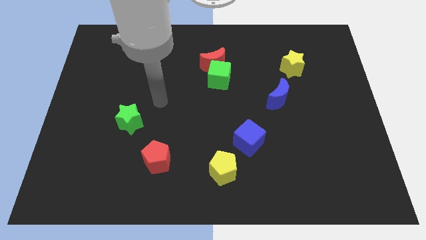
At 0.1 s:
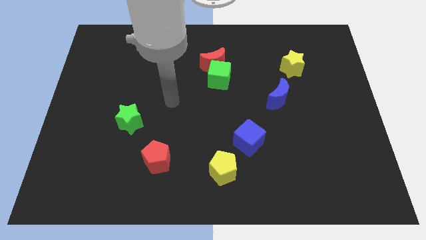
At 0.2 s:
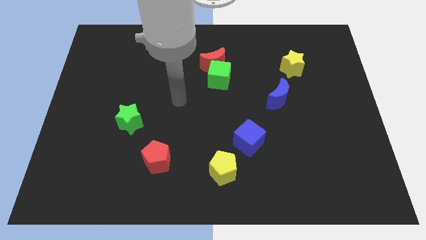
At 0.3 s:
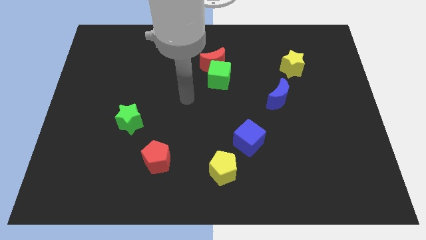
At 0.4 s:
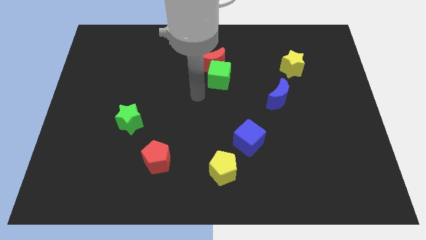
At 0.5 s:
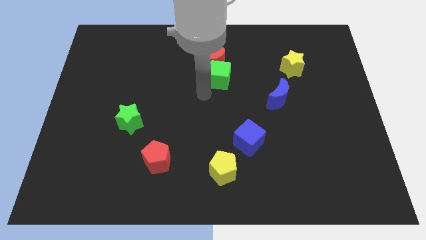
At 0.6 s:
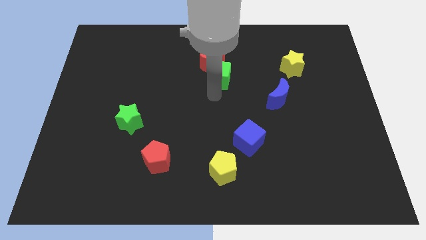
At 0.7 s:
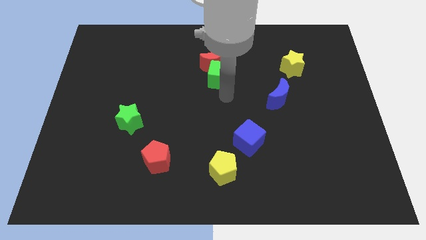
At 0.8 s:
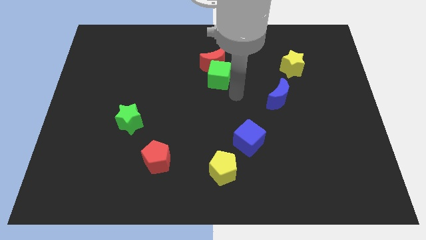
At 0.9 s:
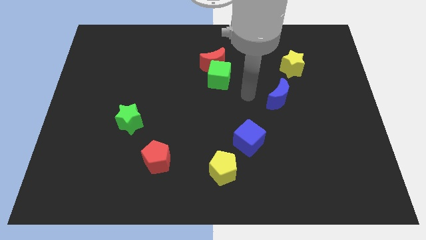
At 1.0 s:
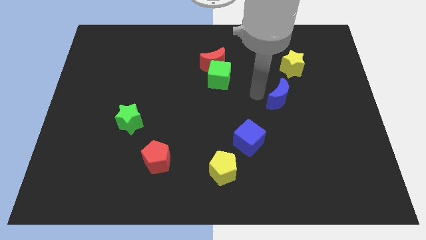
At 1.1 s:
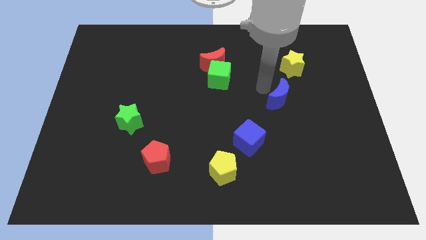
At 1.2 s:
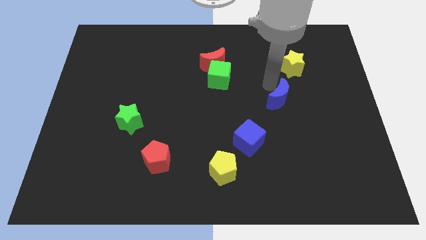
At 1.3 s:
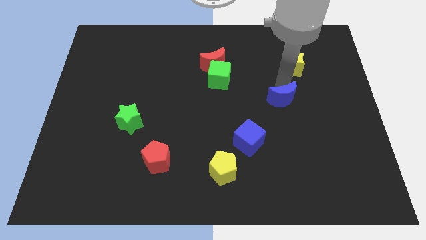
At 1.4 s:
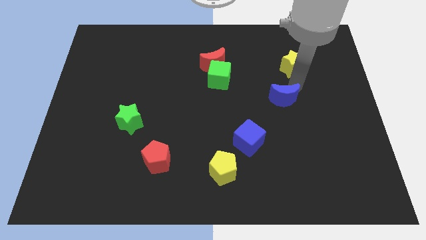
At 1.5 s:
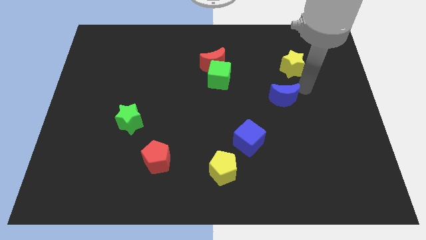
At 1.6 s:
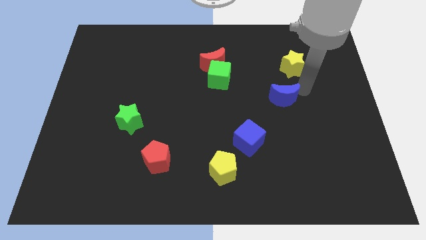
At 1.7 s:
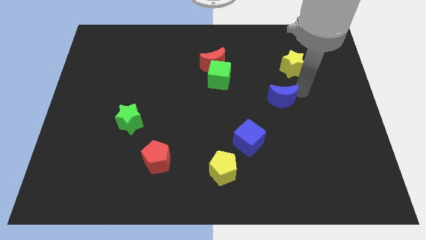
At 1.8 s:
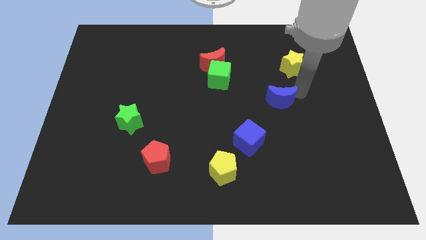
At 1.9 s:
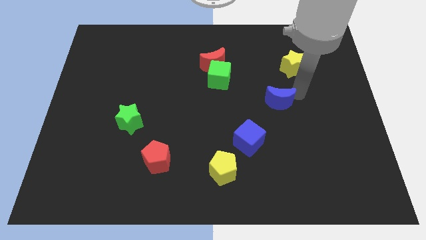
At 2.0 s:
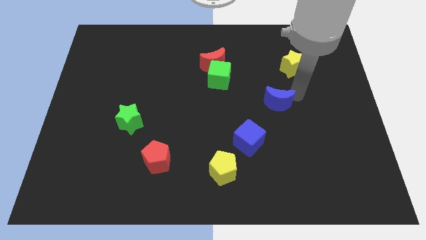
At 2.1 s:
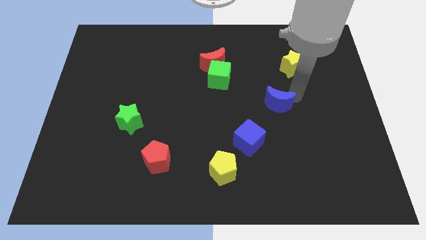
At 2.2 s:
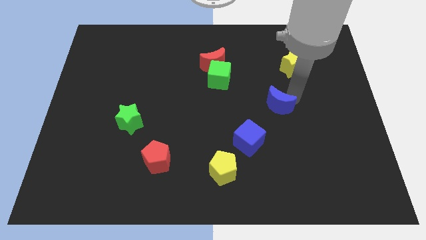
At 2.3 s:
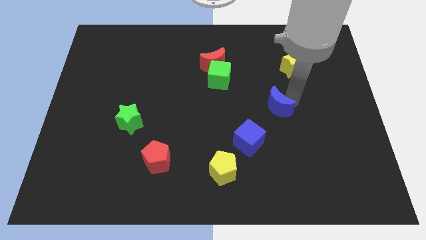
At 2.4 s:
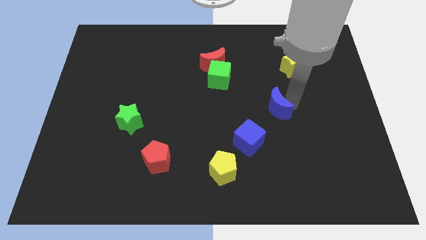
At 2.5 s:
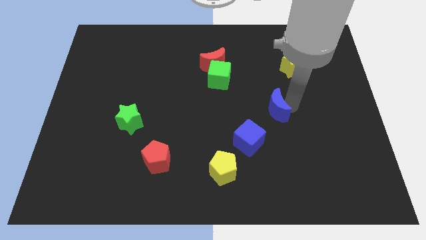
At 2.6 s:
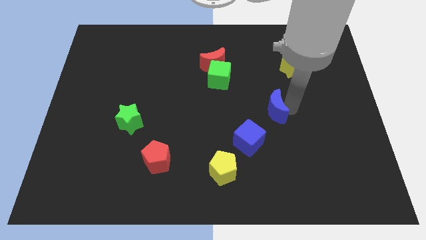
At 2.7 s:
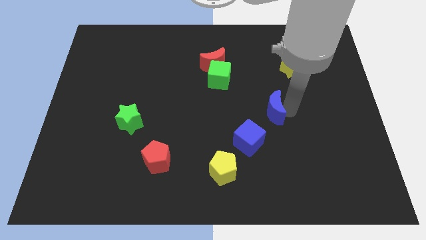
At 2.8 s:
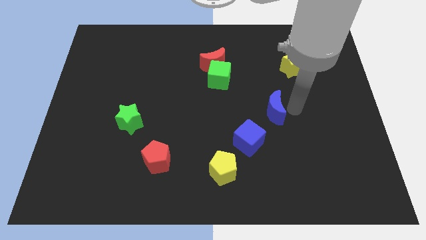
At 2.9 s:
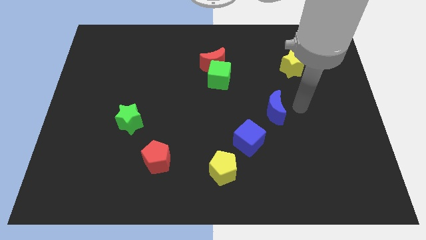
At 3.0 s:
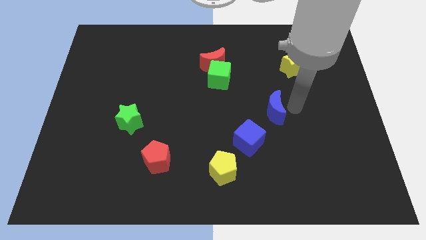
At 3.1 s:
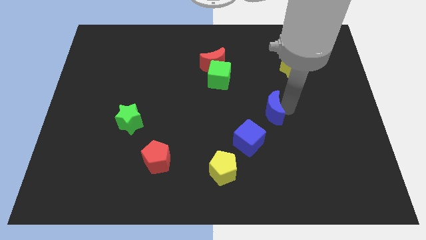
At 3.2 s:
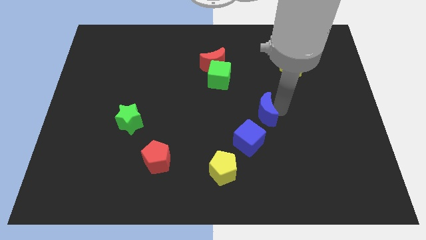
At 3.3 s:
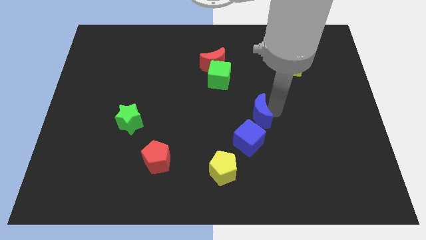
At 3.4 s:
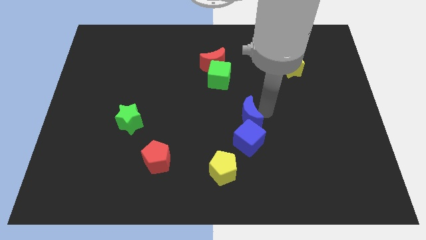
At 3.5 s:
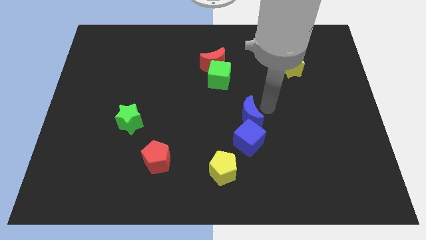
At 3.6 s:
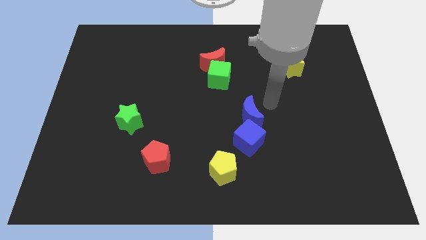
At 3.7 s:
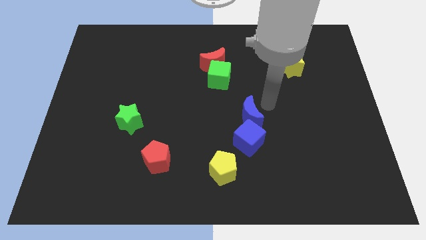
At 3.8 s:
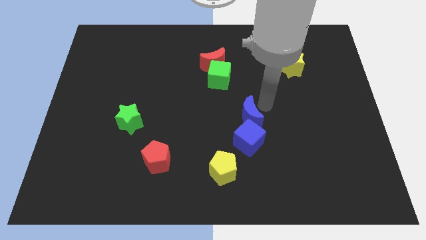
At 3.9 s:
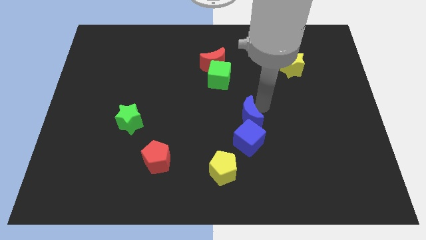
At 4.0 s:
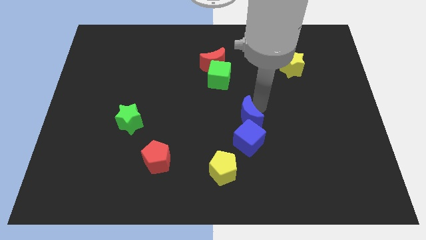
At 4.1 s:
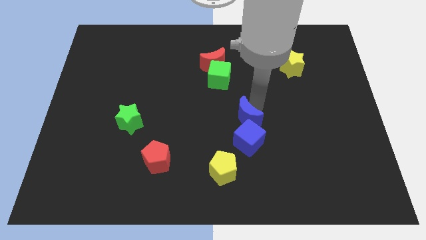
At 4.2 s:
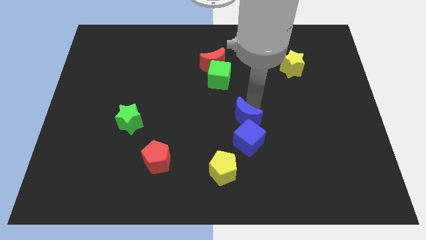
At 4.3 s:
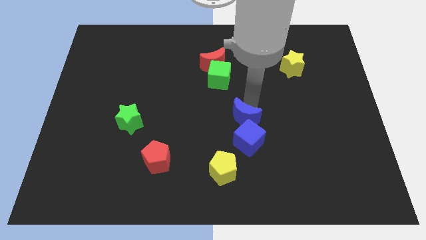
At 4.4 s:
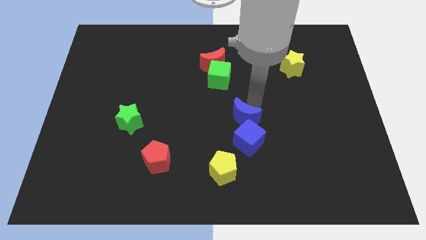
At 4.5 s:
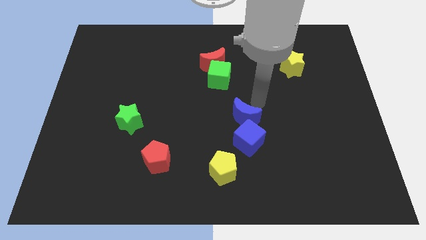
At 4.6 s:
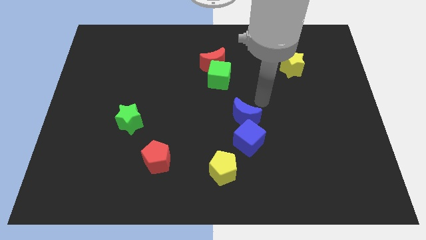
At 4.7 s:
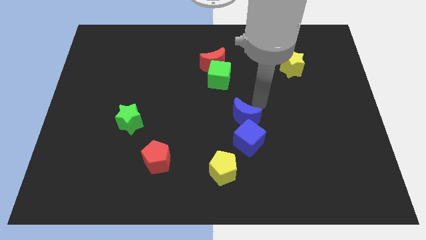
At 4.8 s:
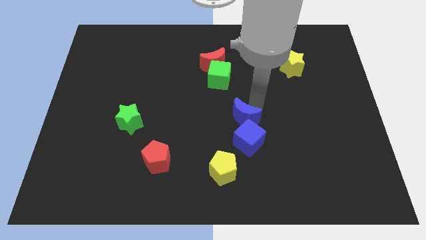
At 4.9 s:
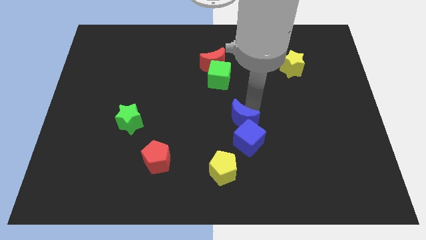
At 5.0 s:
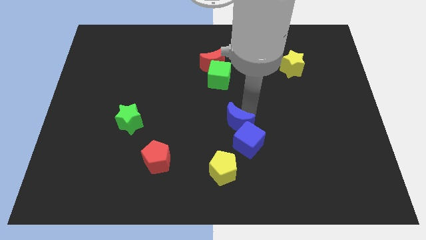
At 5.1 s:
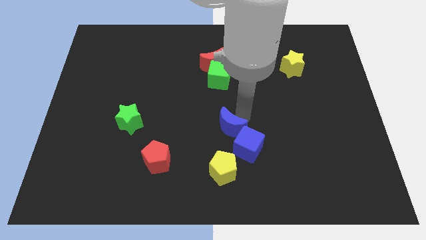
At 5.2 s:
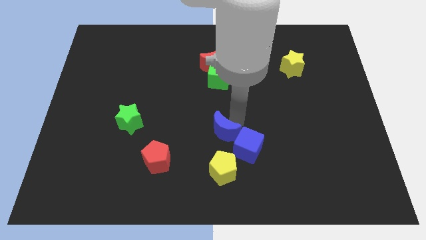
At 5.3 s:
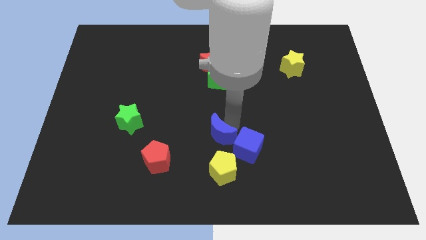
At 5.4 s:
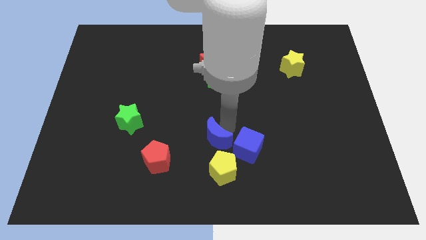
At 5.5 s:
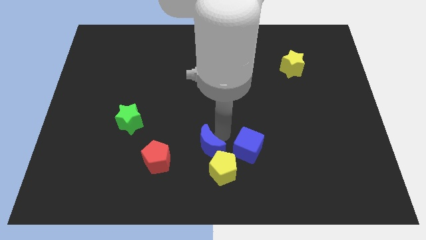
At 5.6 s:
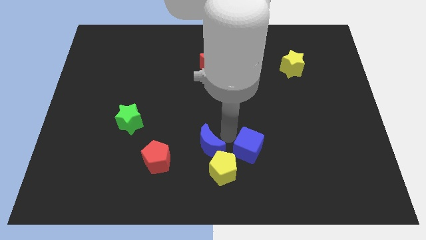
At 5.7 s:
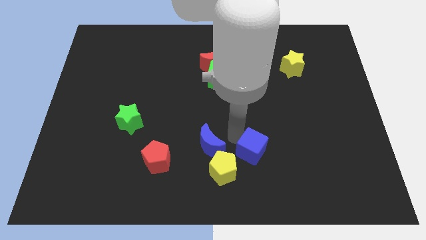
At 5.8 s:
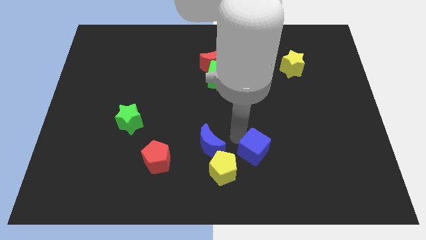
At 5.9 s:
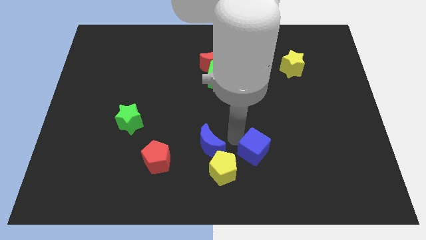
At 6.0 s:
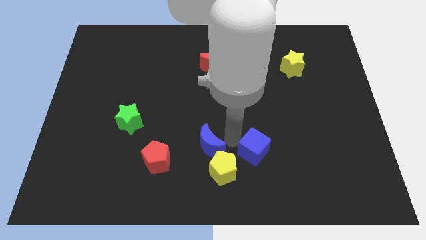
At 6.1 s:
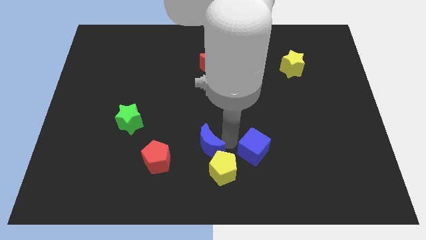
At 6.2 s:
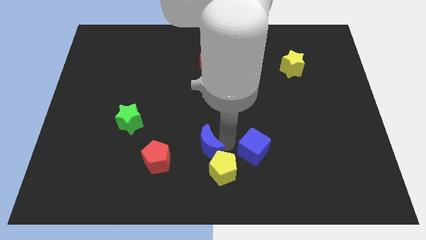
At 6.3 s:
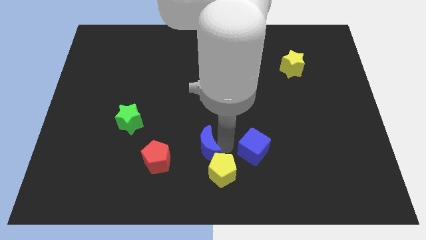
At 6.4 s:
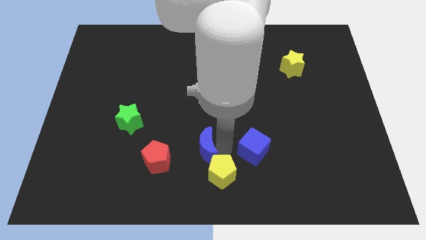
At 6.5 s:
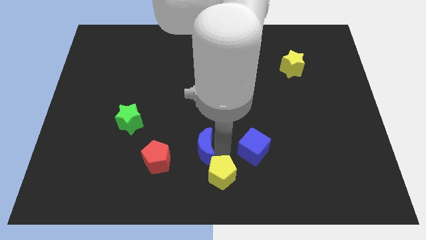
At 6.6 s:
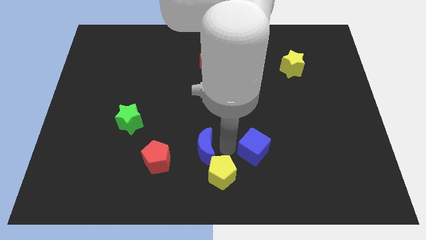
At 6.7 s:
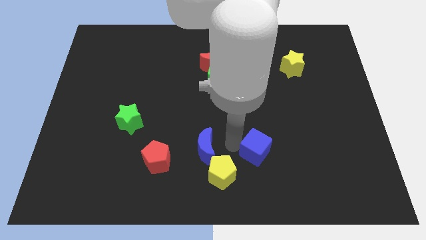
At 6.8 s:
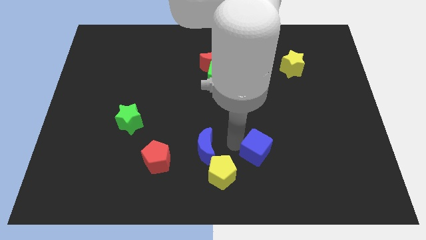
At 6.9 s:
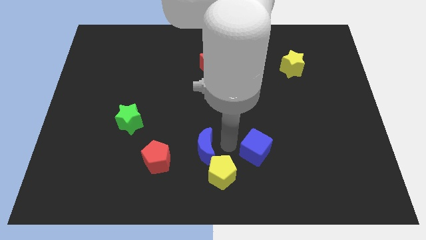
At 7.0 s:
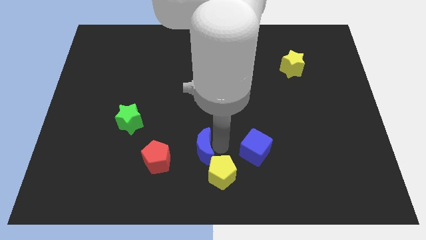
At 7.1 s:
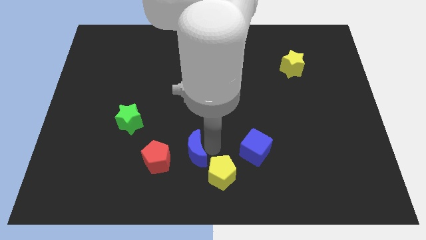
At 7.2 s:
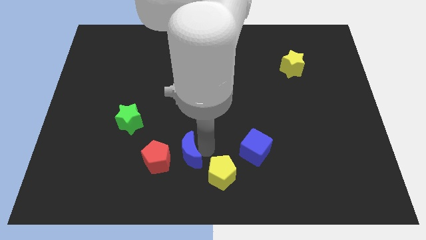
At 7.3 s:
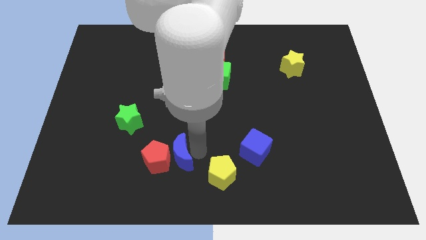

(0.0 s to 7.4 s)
slide the blue moon to the red pentagon
